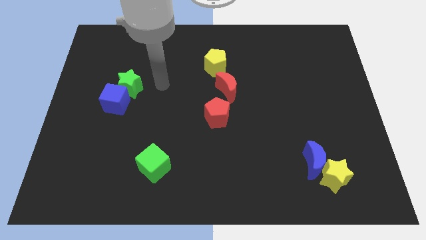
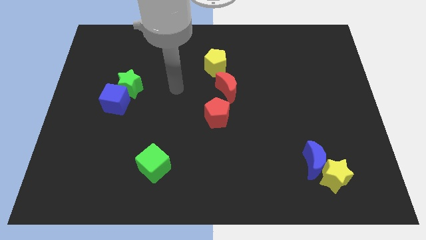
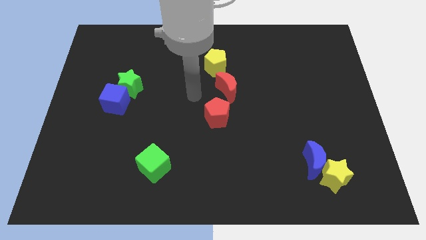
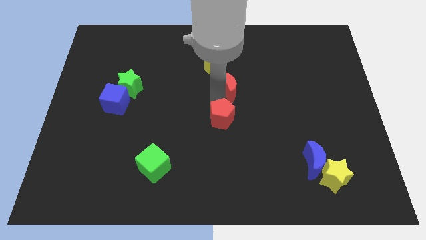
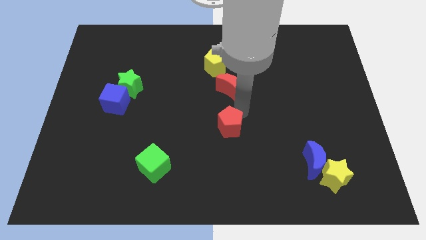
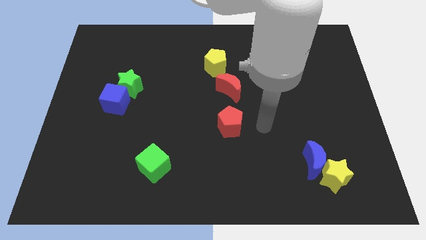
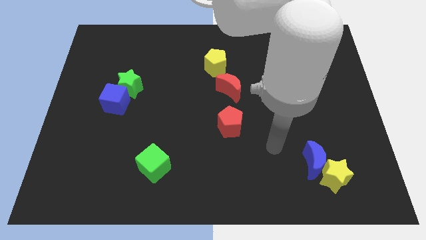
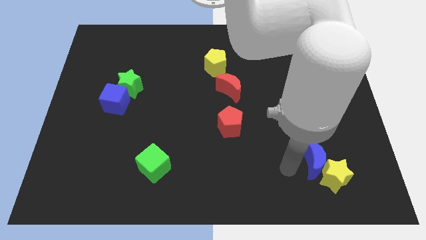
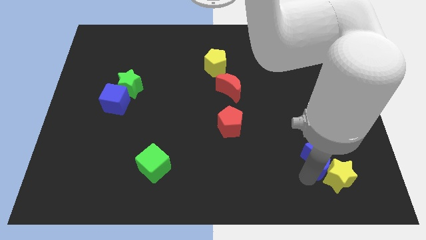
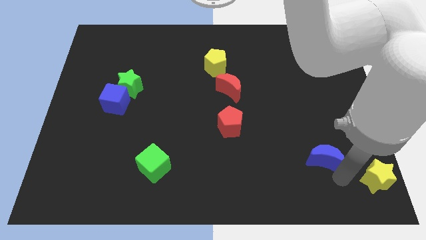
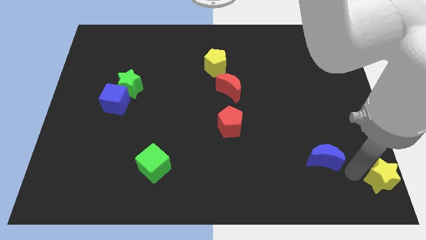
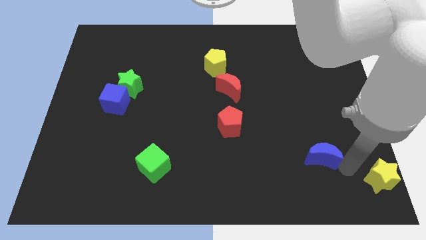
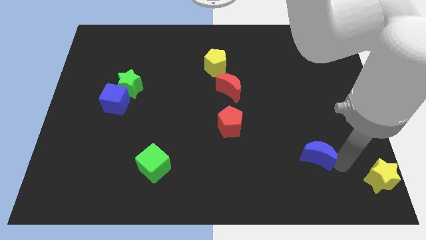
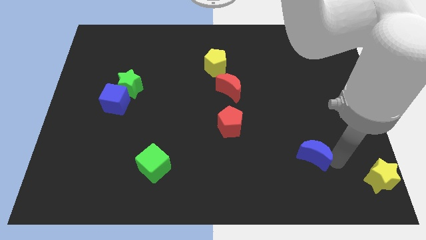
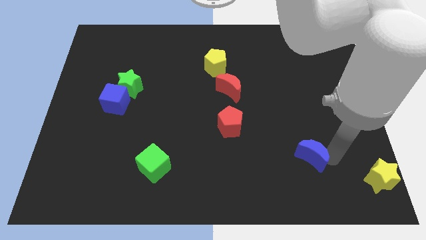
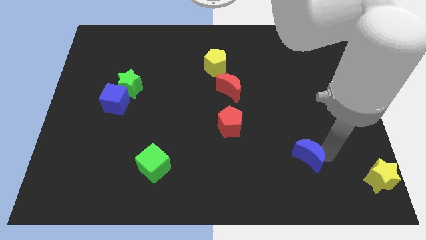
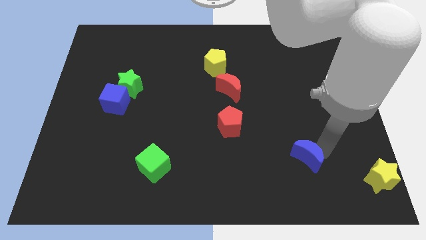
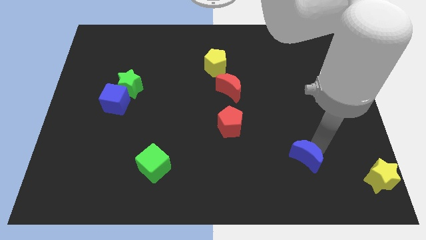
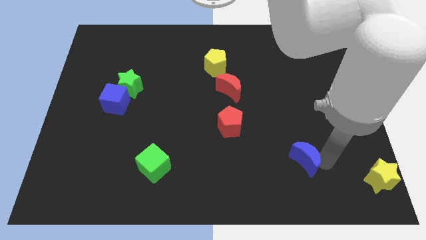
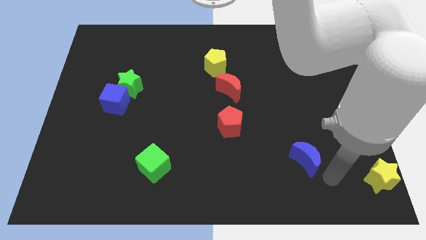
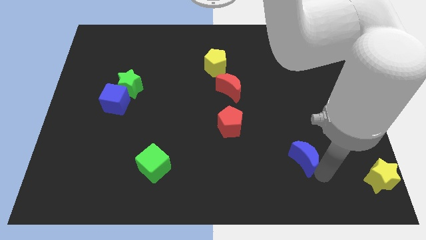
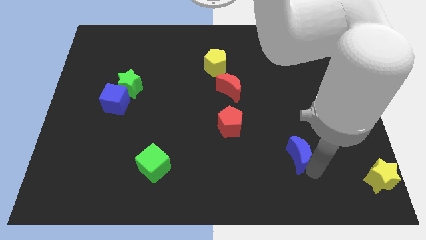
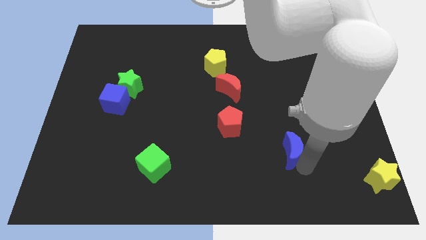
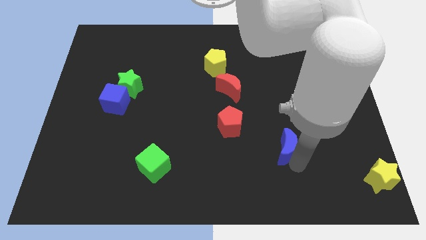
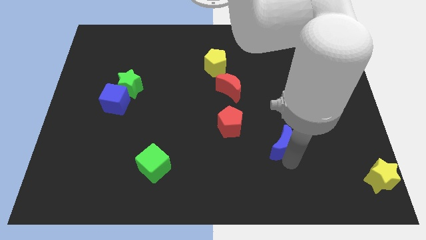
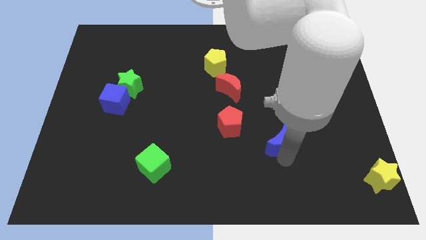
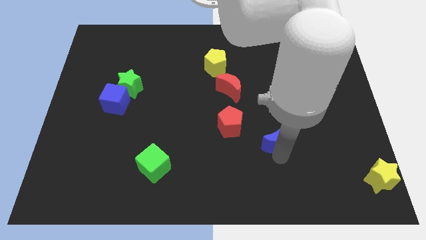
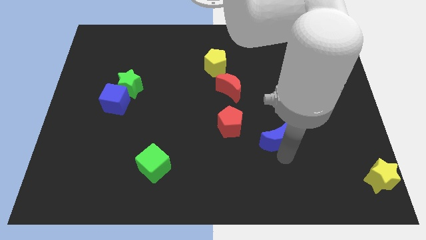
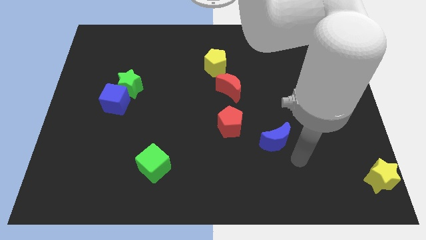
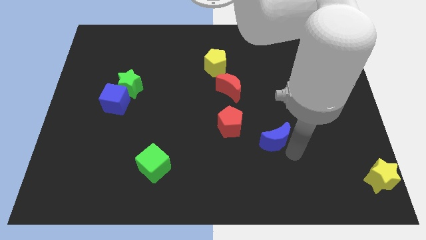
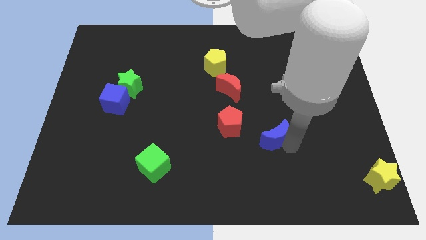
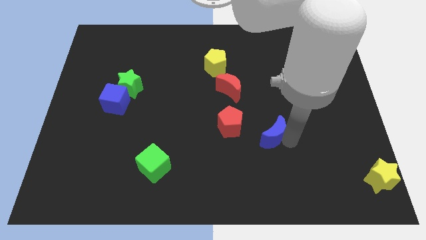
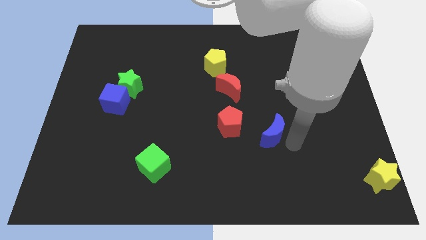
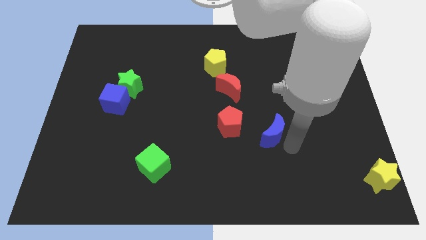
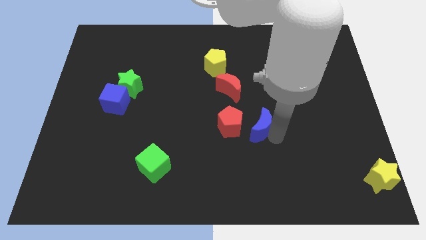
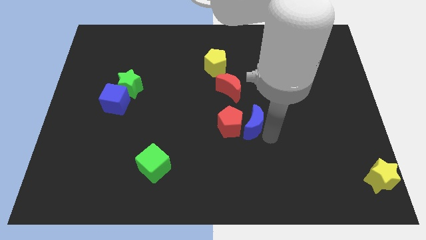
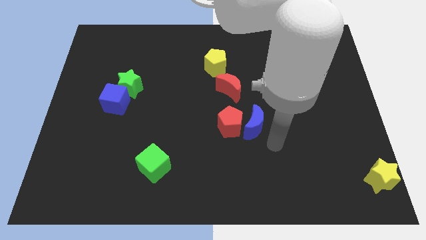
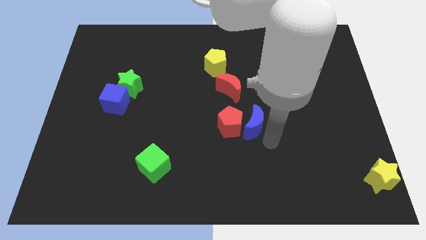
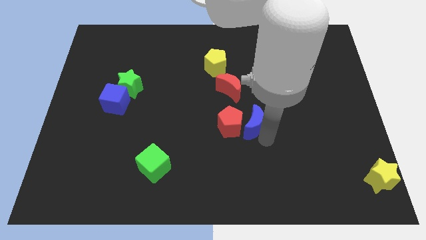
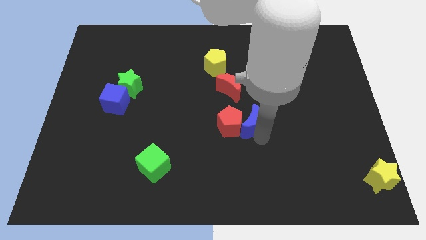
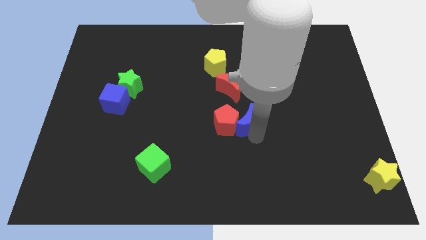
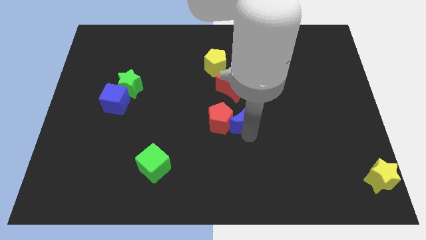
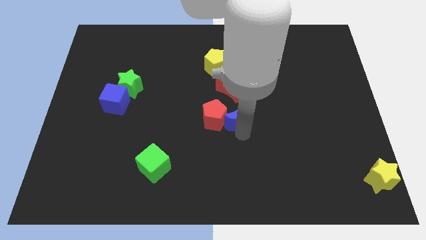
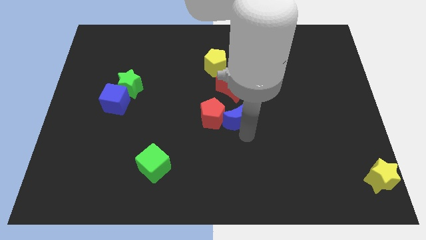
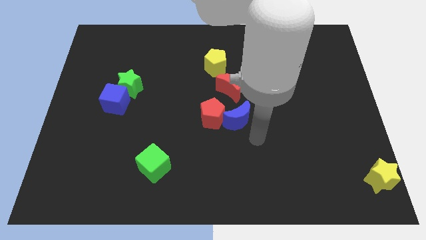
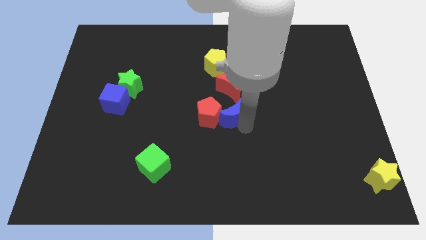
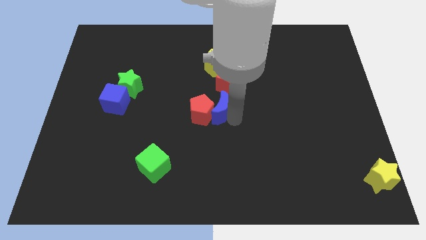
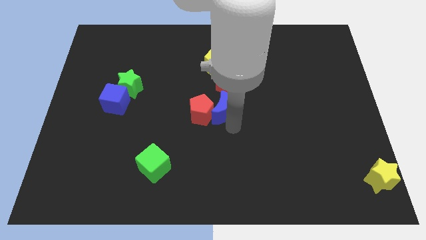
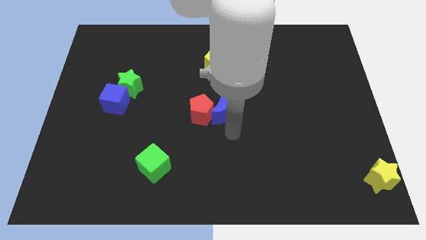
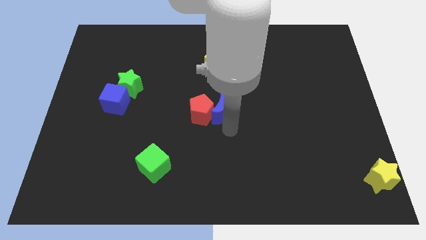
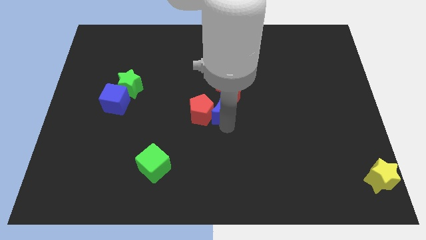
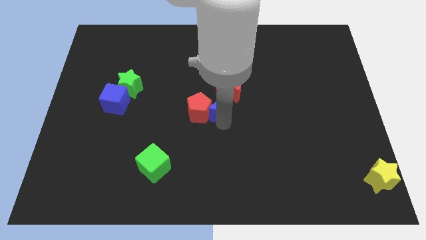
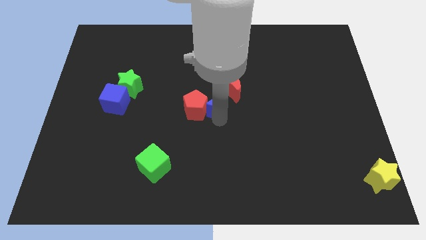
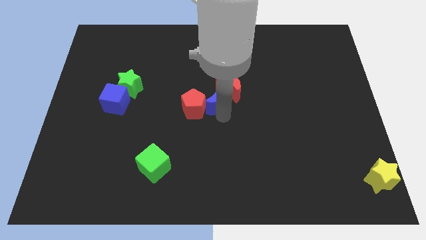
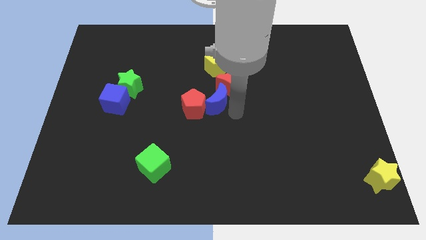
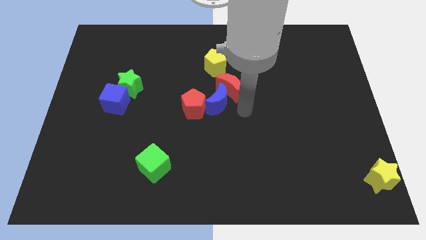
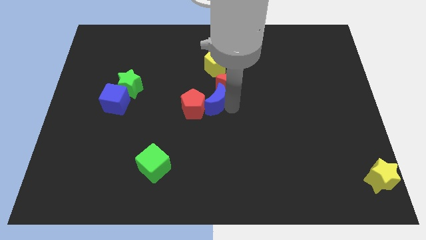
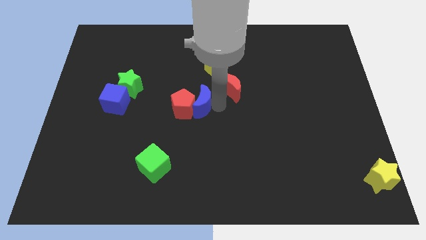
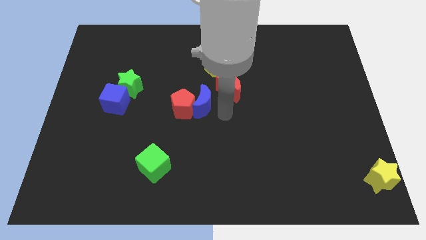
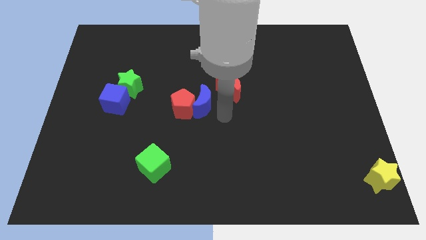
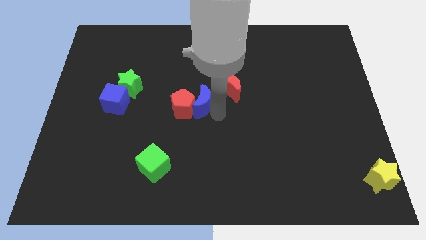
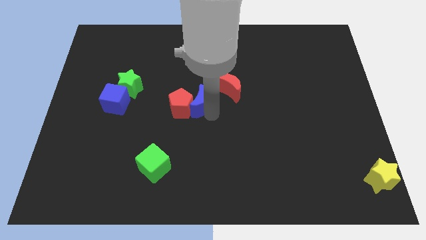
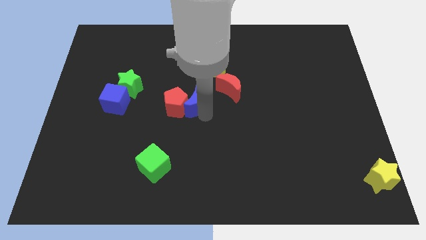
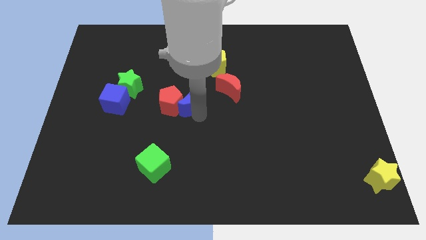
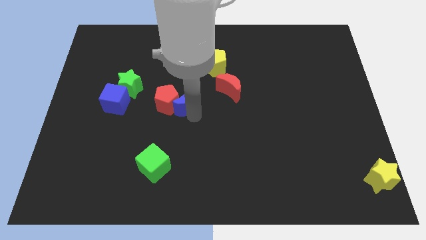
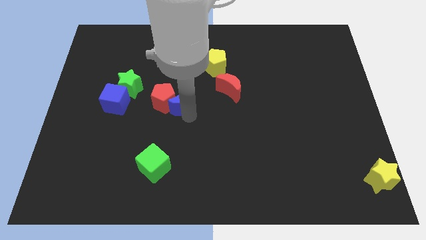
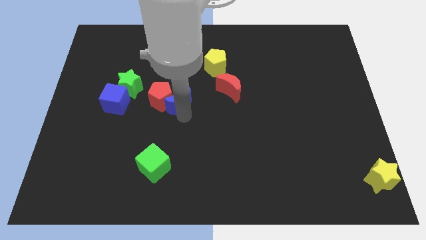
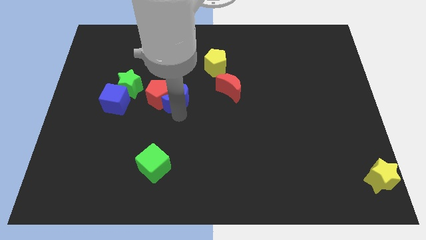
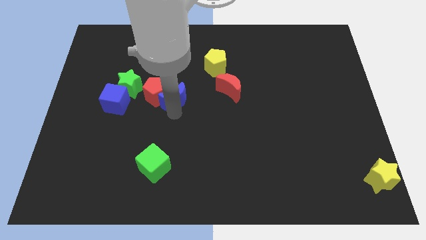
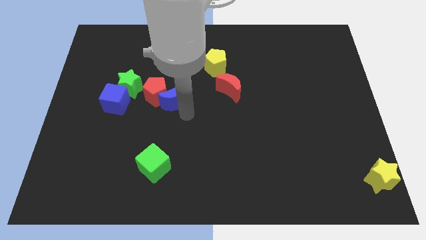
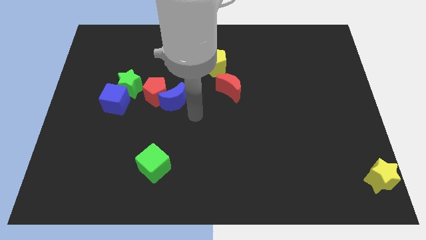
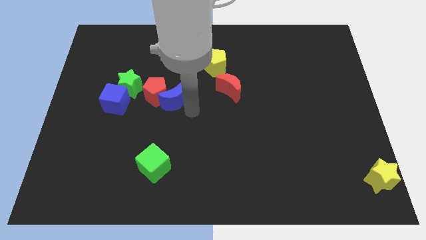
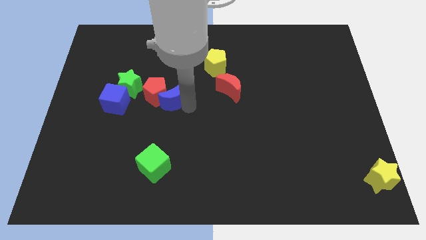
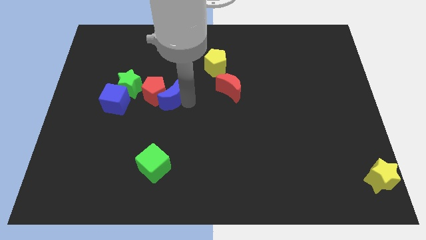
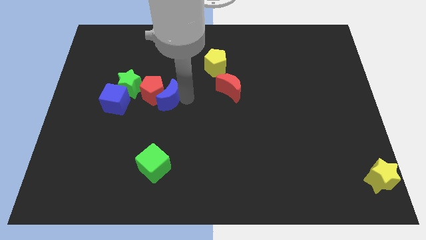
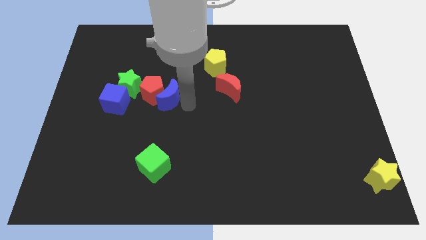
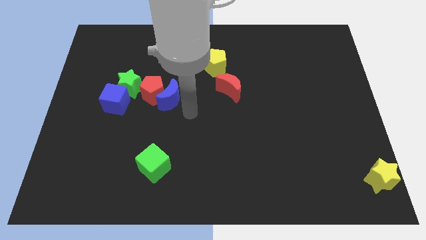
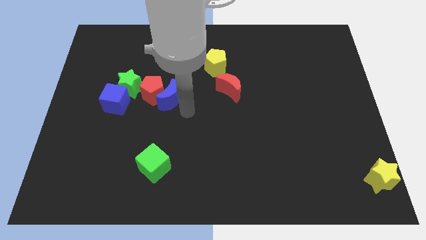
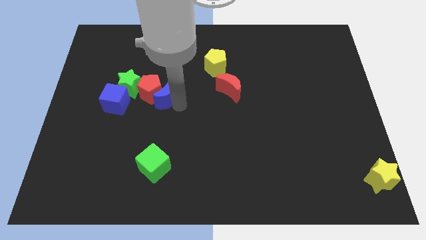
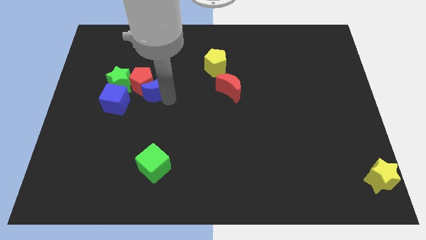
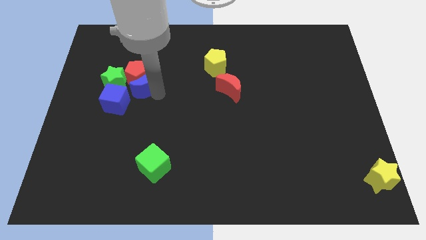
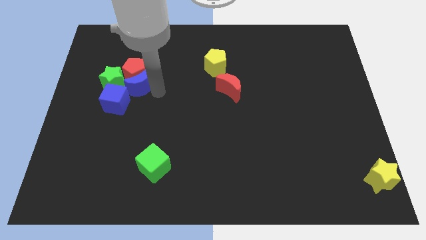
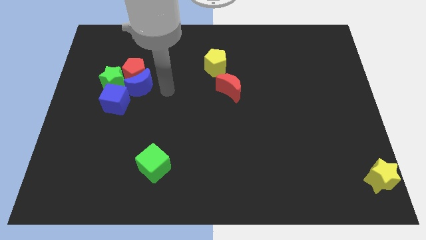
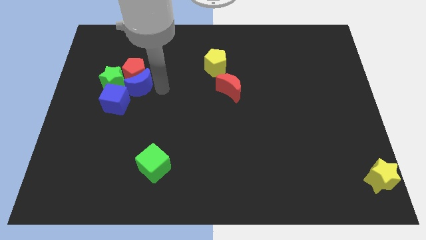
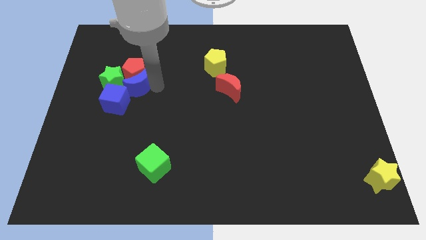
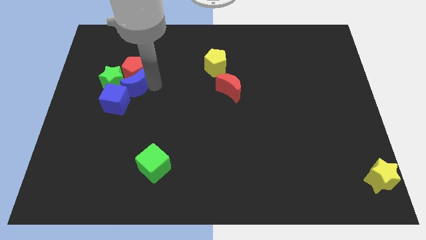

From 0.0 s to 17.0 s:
put the blue moon towards the green star
